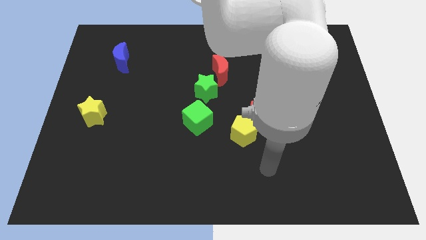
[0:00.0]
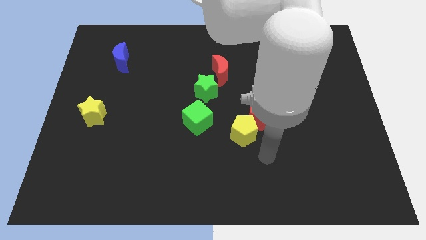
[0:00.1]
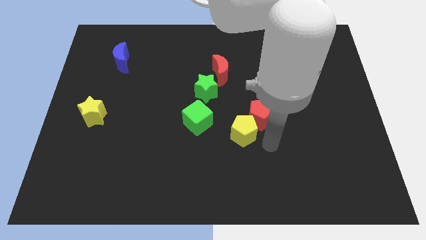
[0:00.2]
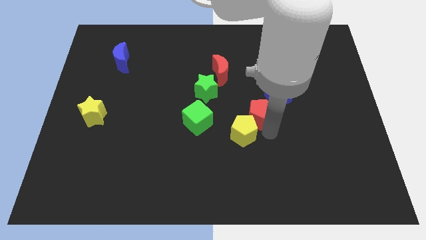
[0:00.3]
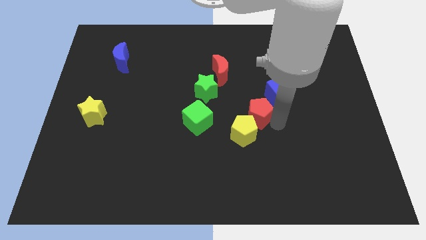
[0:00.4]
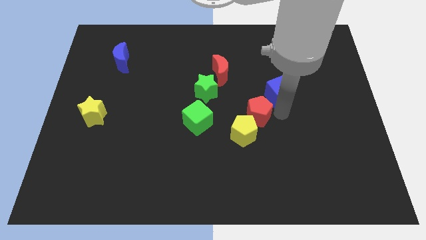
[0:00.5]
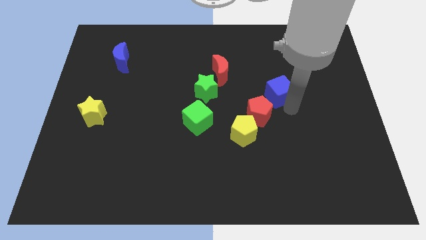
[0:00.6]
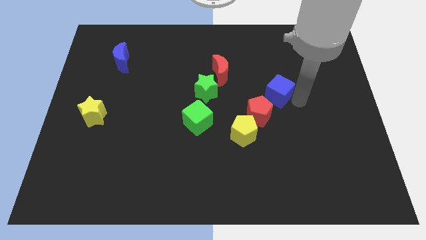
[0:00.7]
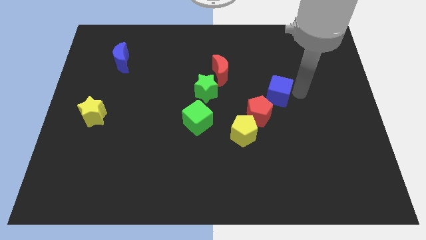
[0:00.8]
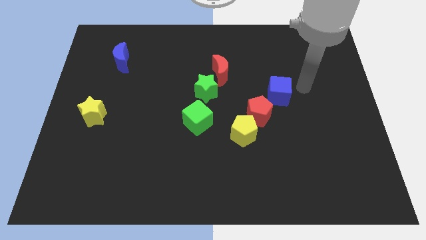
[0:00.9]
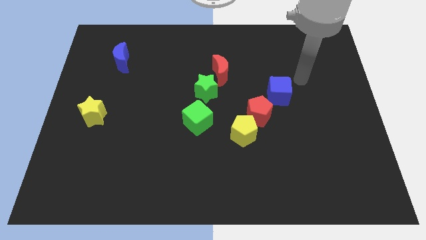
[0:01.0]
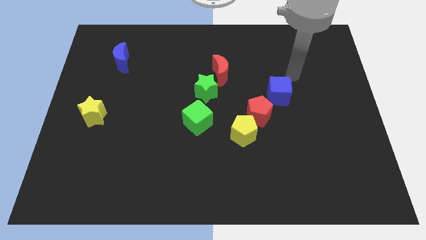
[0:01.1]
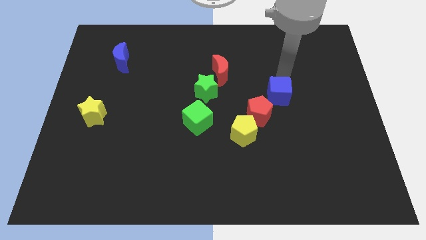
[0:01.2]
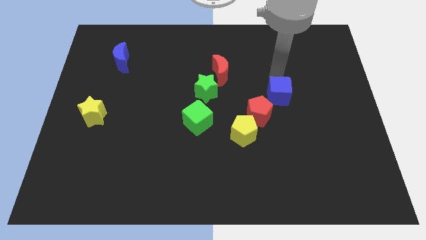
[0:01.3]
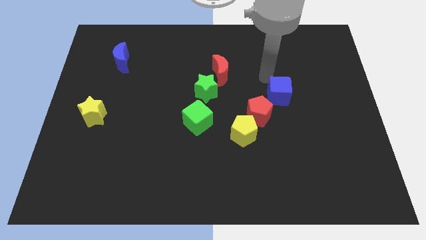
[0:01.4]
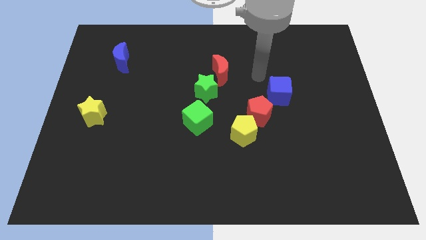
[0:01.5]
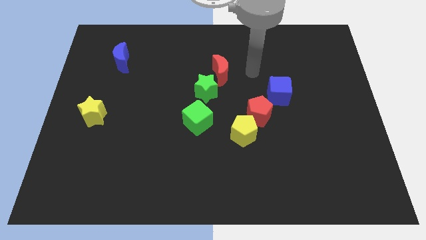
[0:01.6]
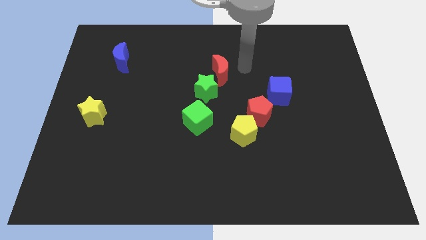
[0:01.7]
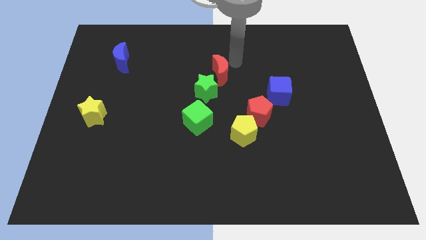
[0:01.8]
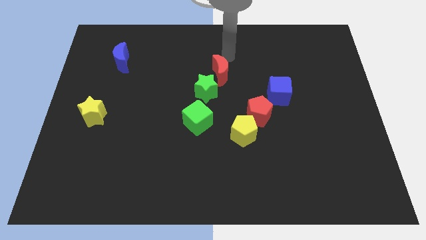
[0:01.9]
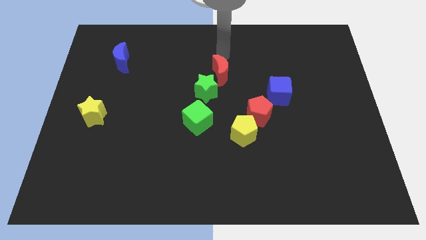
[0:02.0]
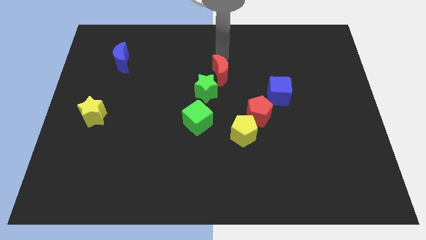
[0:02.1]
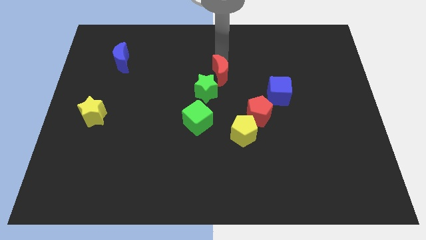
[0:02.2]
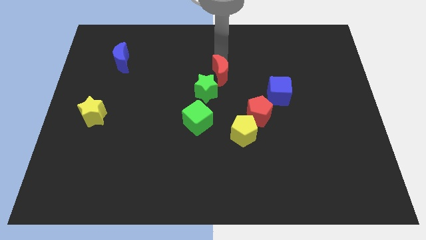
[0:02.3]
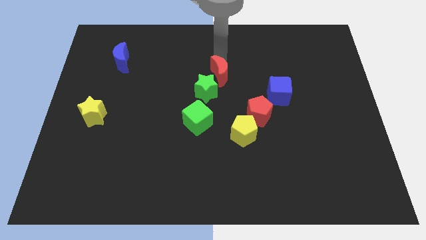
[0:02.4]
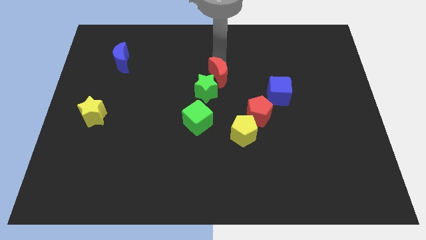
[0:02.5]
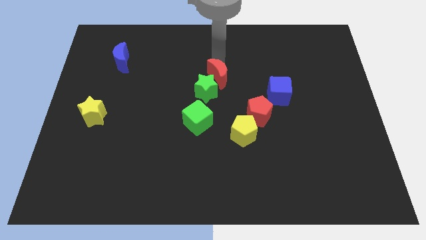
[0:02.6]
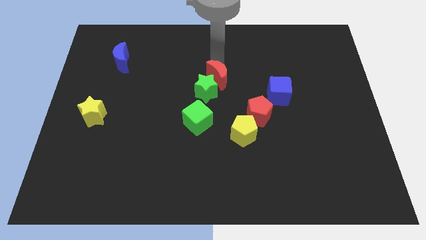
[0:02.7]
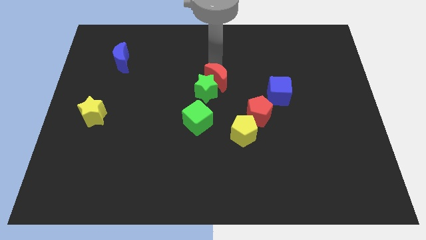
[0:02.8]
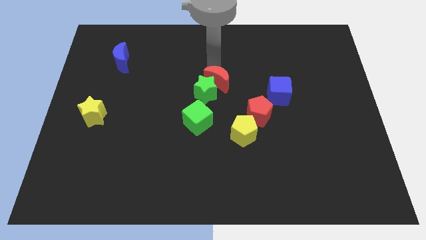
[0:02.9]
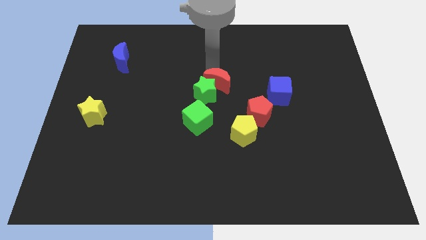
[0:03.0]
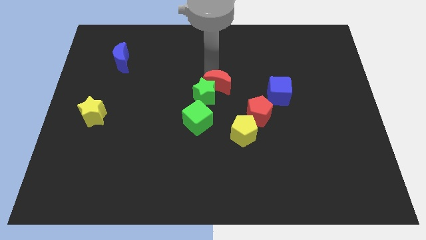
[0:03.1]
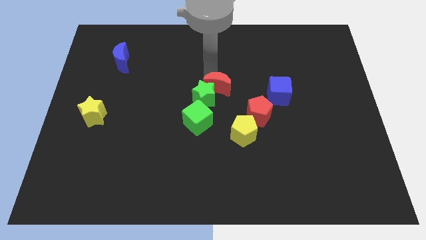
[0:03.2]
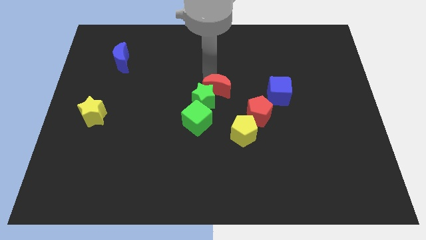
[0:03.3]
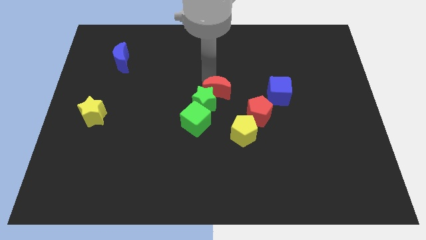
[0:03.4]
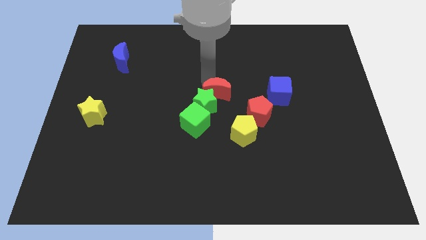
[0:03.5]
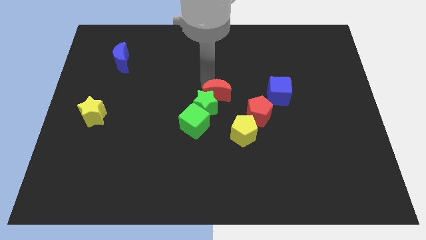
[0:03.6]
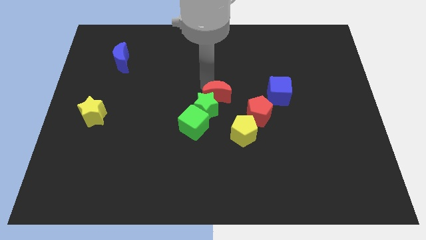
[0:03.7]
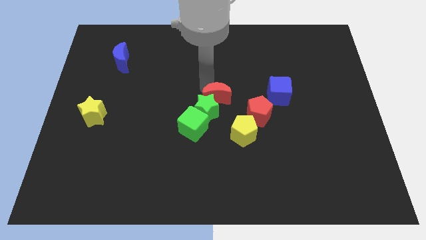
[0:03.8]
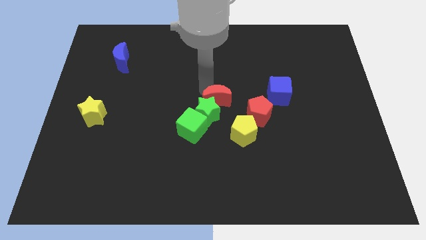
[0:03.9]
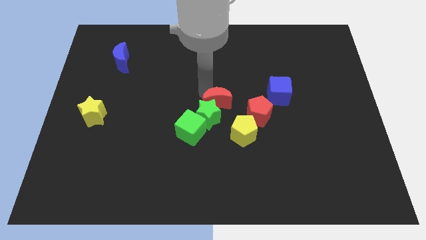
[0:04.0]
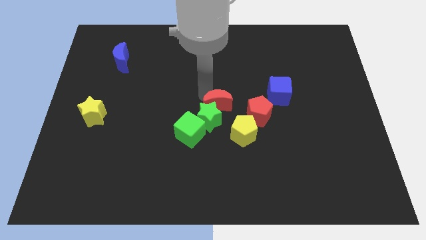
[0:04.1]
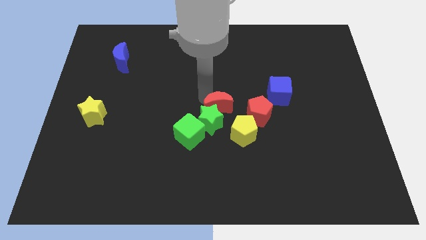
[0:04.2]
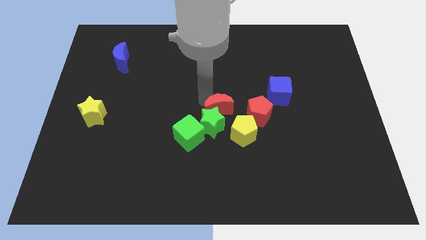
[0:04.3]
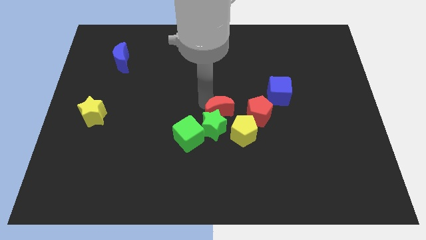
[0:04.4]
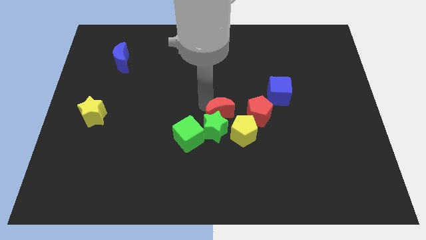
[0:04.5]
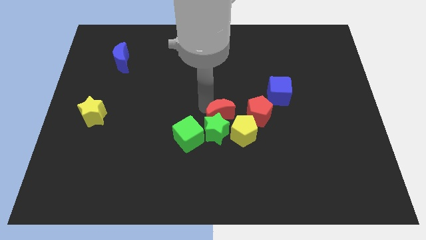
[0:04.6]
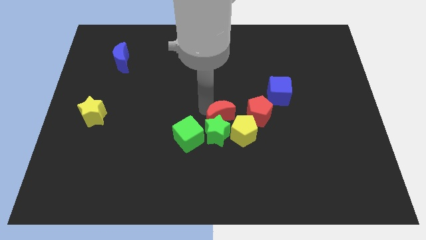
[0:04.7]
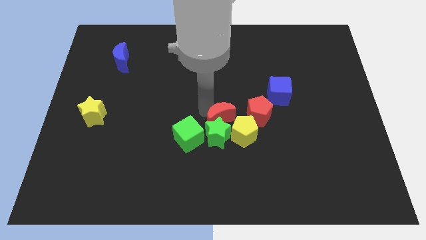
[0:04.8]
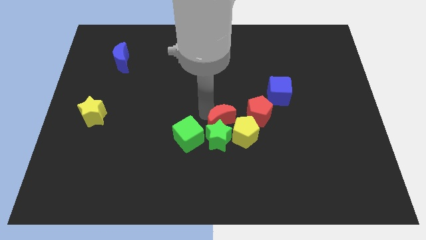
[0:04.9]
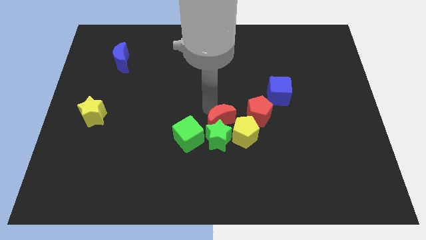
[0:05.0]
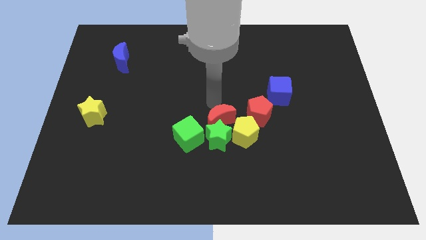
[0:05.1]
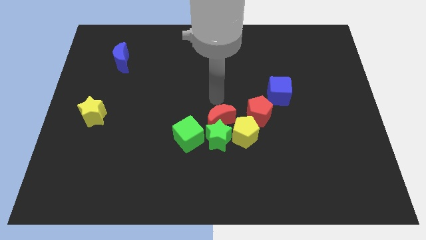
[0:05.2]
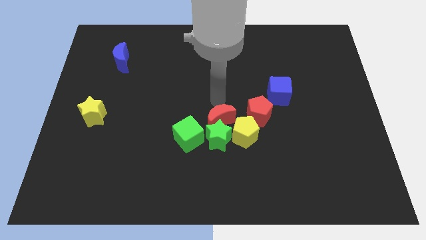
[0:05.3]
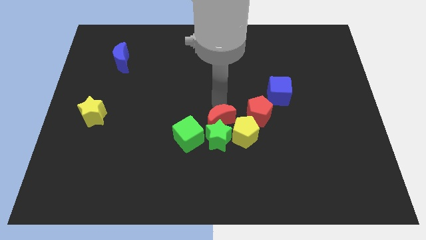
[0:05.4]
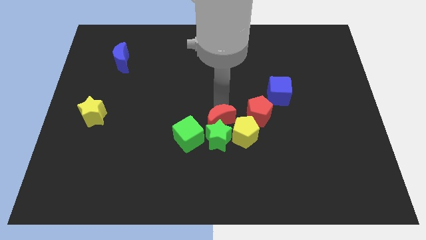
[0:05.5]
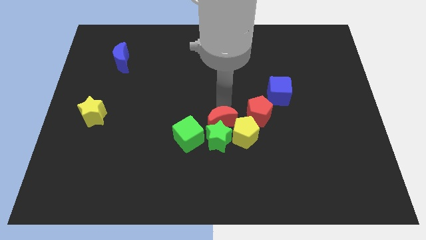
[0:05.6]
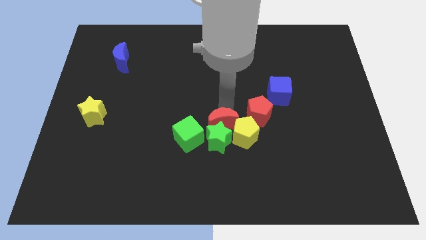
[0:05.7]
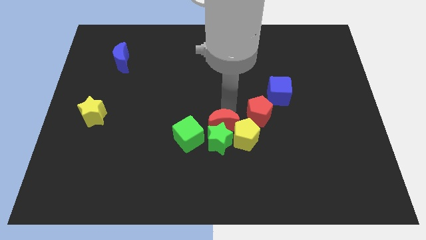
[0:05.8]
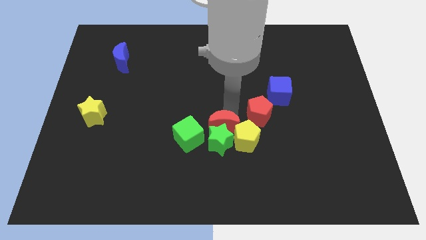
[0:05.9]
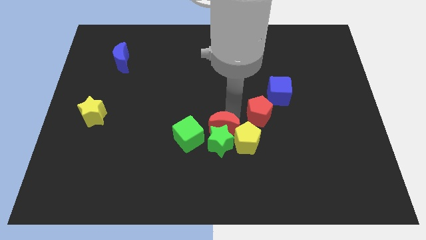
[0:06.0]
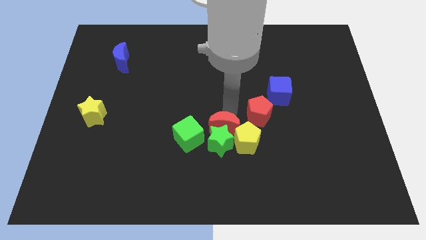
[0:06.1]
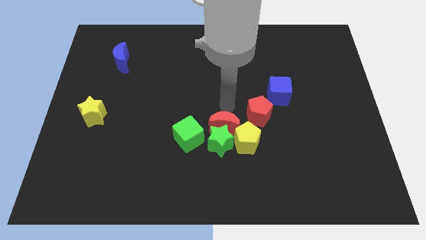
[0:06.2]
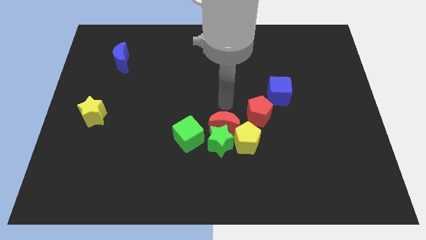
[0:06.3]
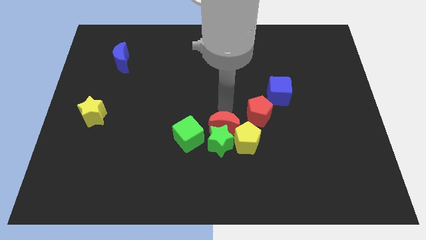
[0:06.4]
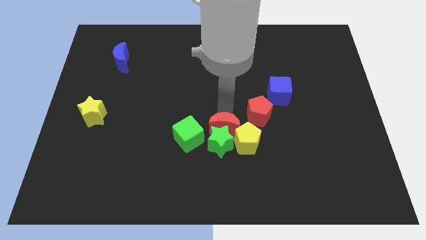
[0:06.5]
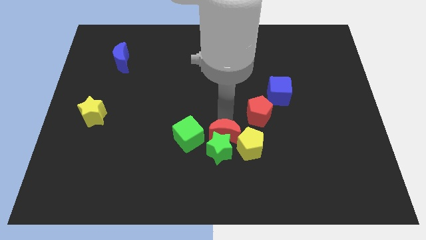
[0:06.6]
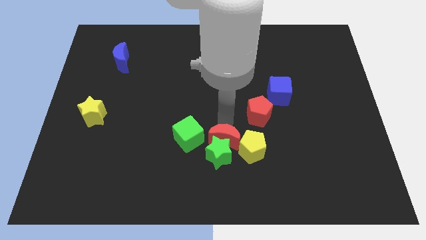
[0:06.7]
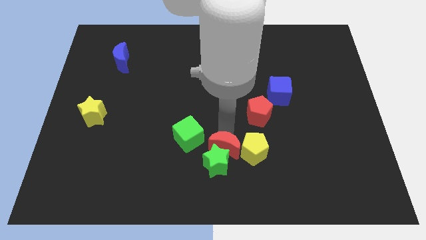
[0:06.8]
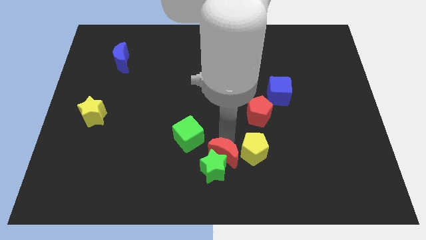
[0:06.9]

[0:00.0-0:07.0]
push the red moon to the bottom side
